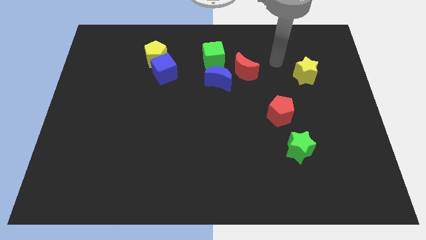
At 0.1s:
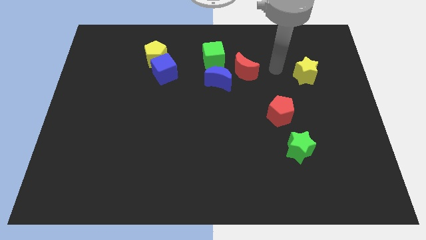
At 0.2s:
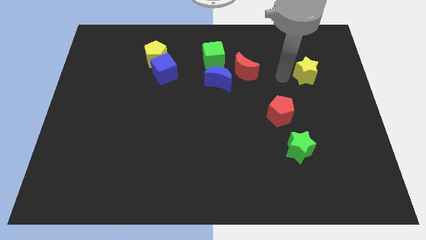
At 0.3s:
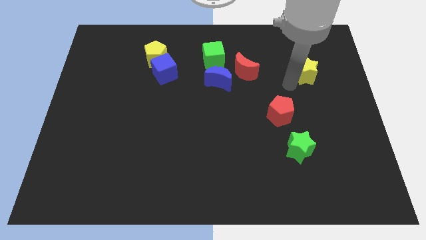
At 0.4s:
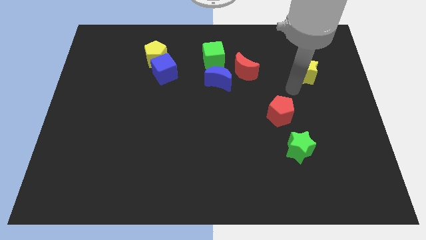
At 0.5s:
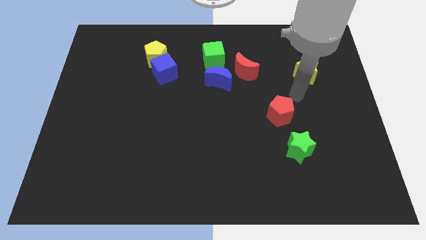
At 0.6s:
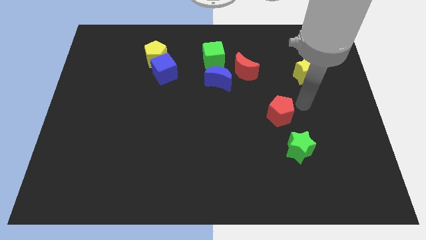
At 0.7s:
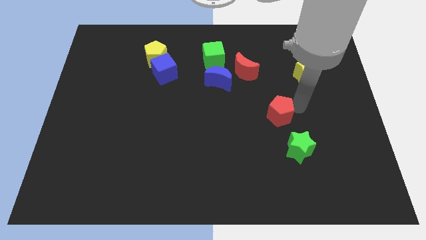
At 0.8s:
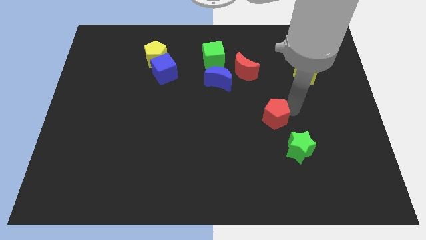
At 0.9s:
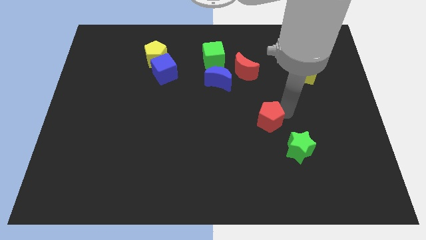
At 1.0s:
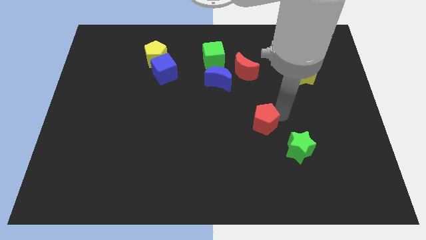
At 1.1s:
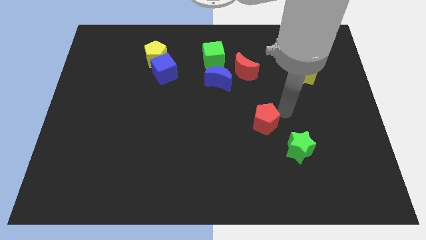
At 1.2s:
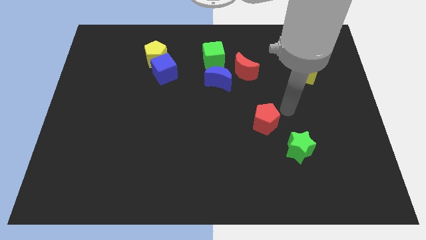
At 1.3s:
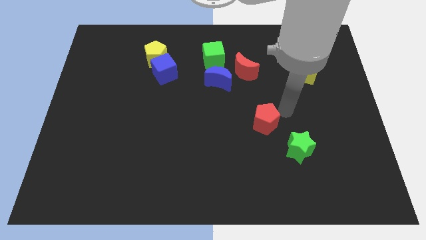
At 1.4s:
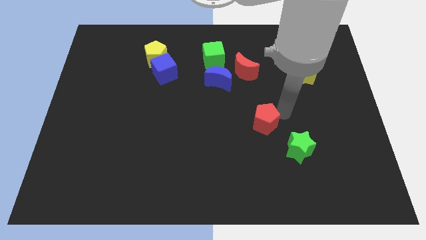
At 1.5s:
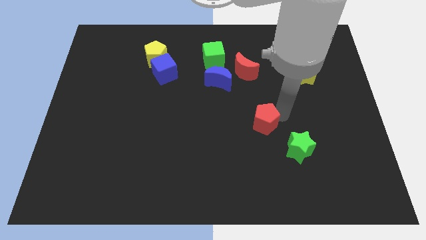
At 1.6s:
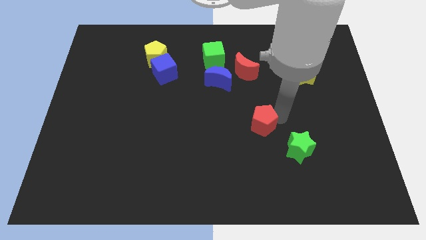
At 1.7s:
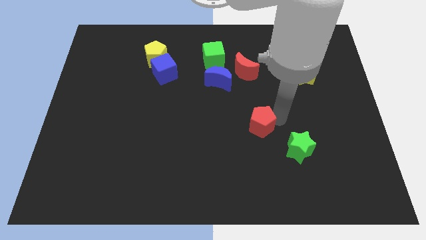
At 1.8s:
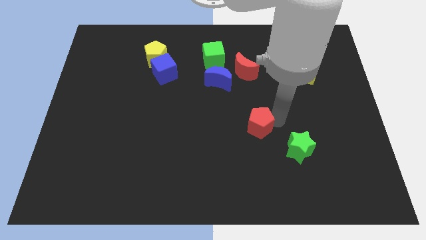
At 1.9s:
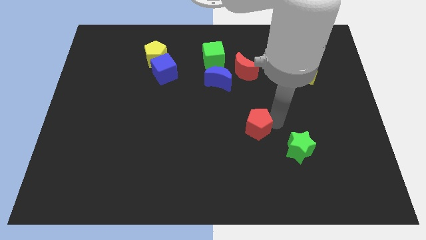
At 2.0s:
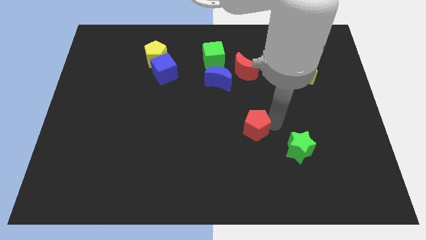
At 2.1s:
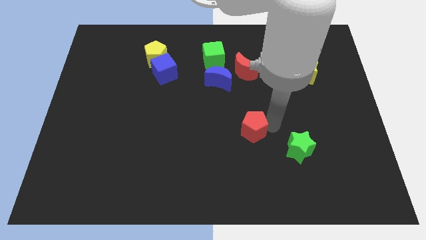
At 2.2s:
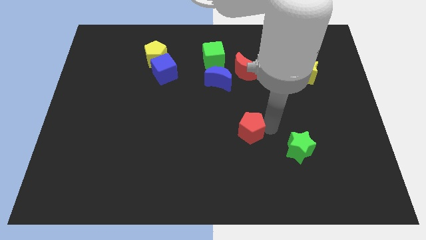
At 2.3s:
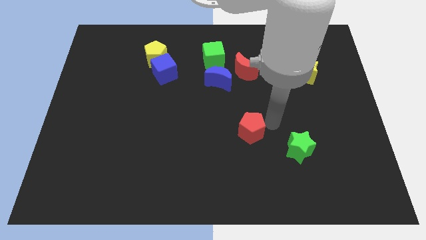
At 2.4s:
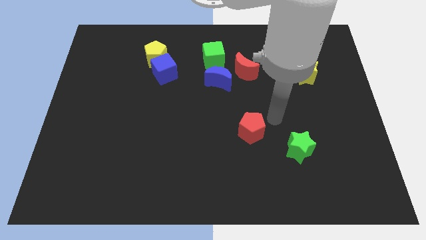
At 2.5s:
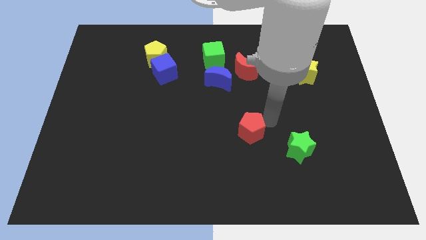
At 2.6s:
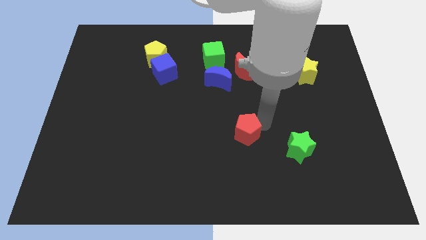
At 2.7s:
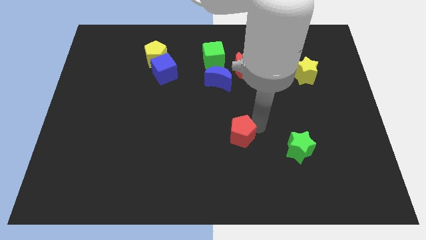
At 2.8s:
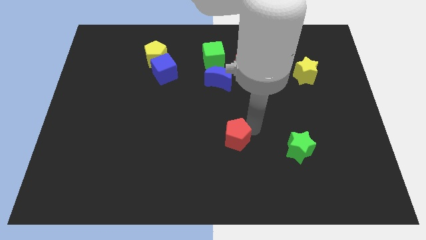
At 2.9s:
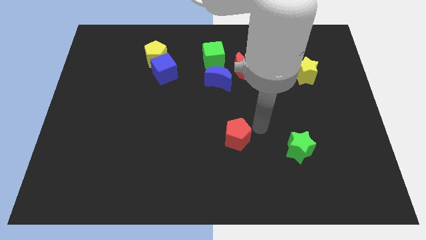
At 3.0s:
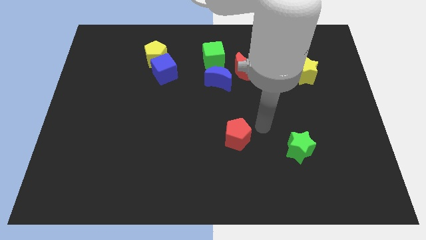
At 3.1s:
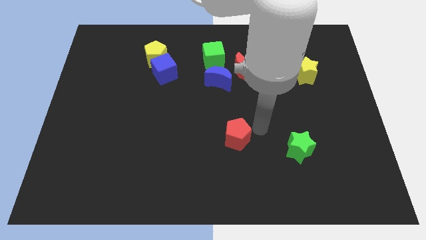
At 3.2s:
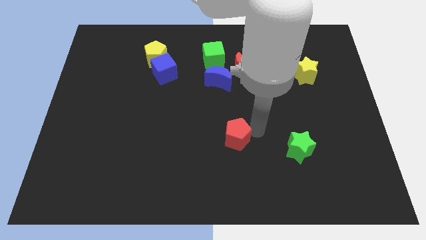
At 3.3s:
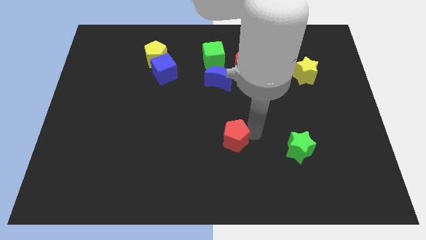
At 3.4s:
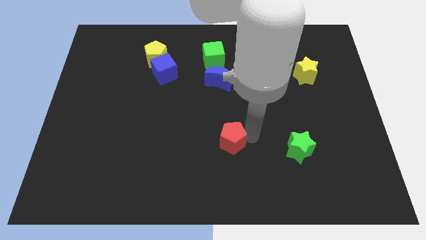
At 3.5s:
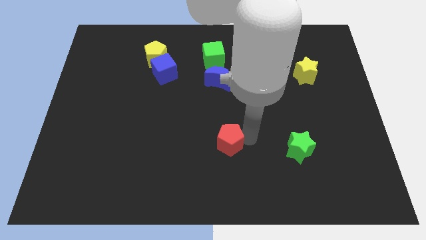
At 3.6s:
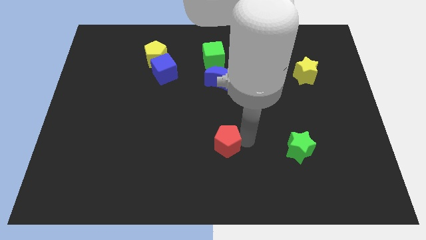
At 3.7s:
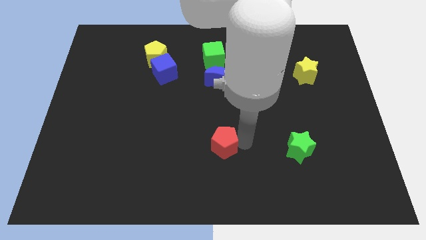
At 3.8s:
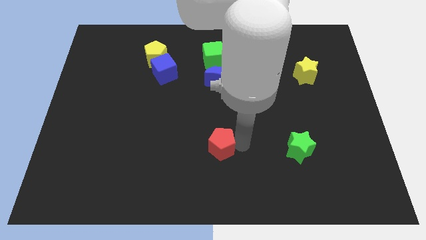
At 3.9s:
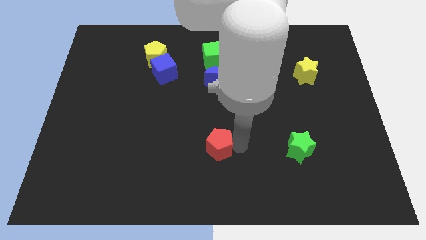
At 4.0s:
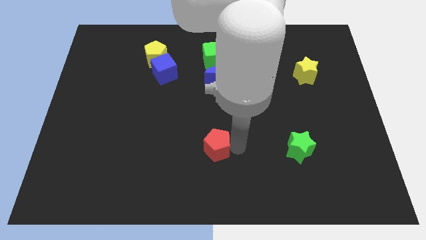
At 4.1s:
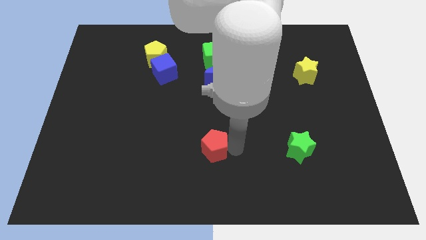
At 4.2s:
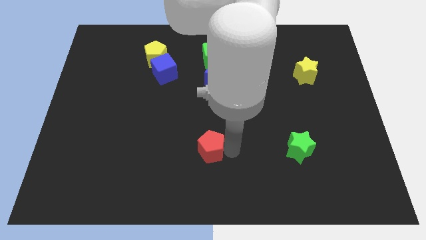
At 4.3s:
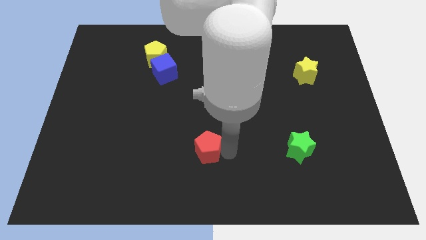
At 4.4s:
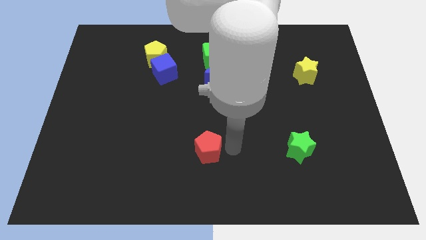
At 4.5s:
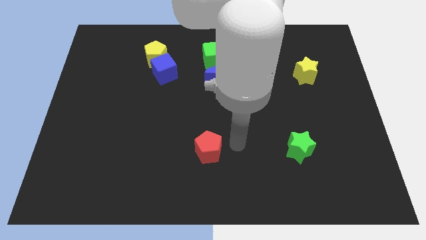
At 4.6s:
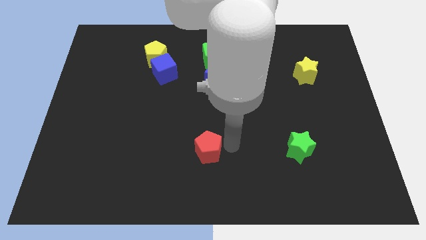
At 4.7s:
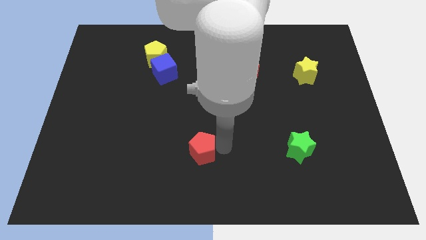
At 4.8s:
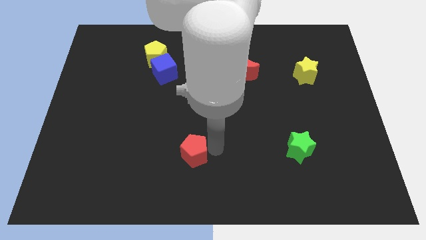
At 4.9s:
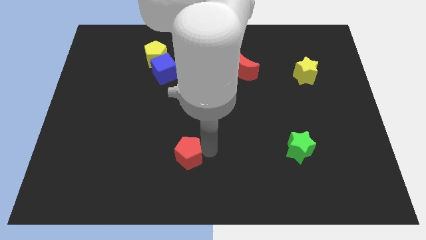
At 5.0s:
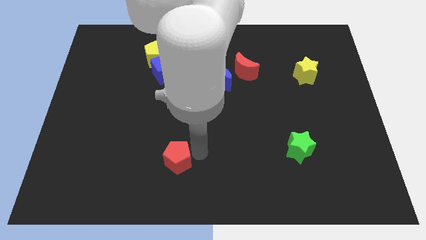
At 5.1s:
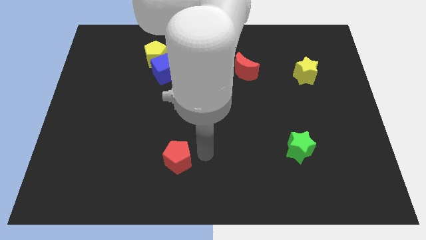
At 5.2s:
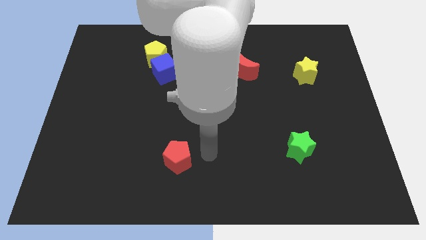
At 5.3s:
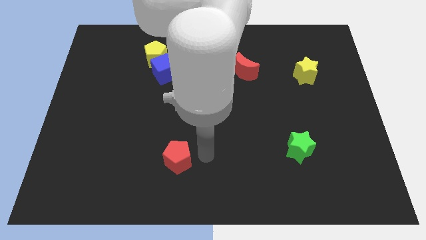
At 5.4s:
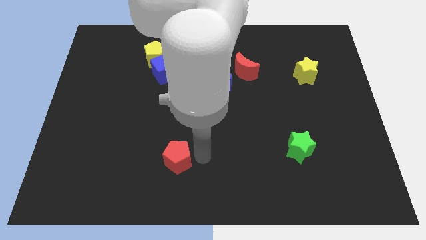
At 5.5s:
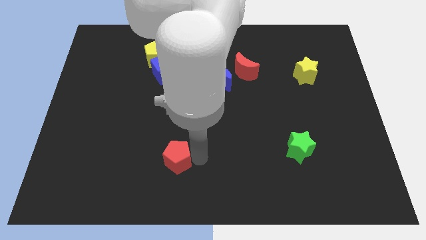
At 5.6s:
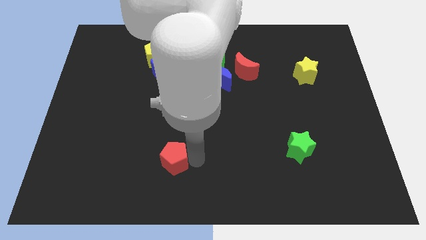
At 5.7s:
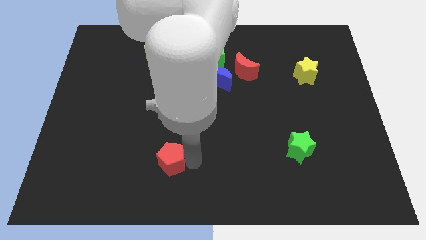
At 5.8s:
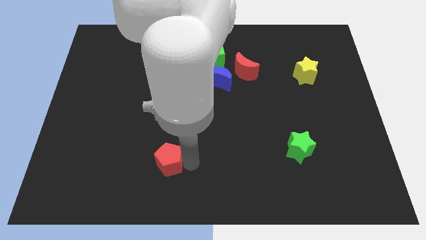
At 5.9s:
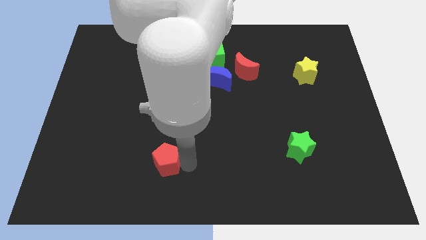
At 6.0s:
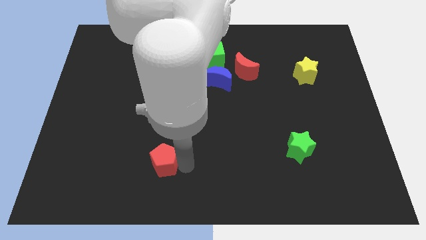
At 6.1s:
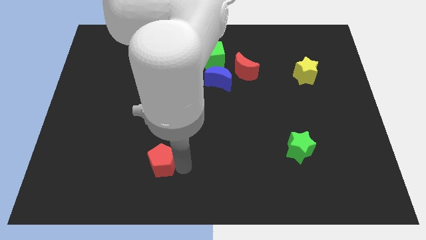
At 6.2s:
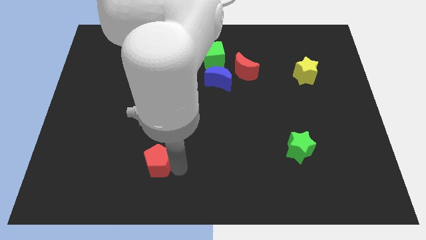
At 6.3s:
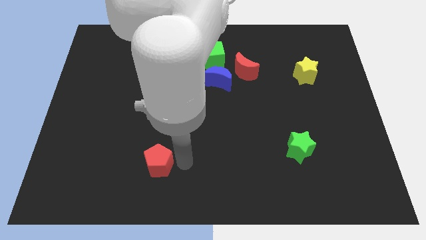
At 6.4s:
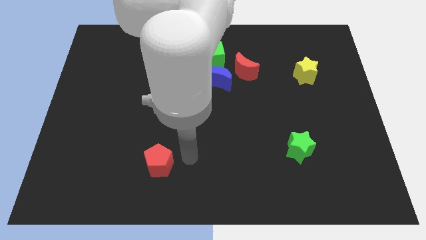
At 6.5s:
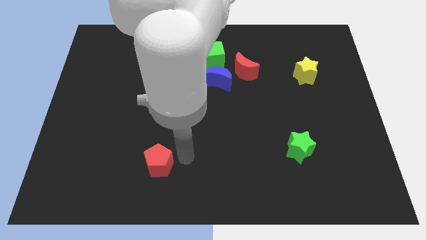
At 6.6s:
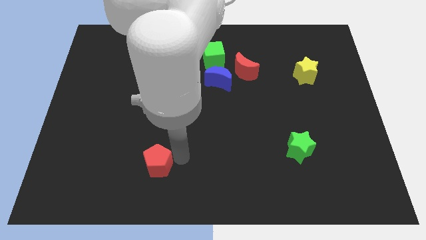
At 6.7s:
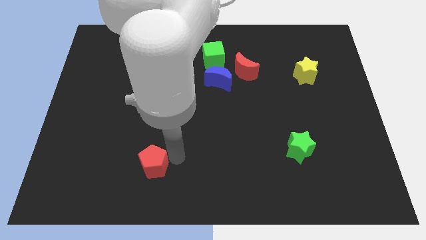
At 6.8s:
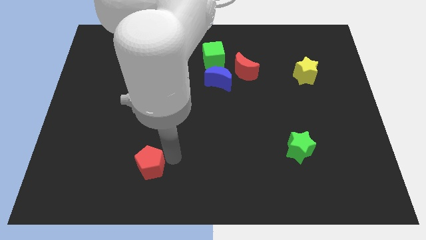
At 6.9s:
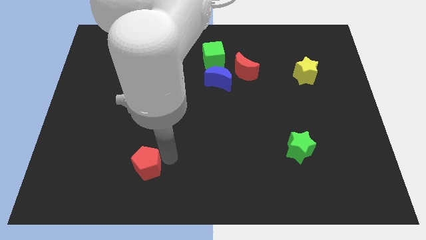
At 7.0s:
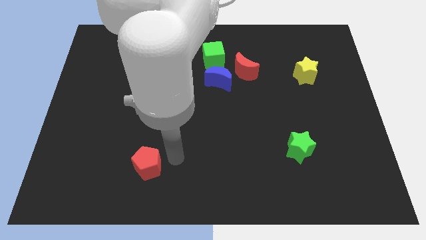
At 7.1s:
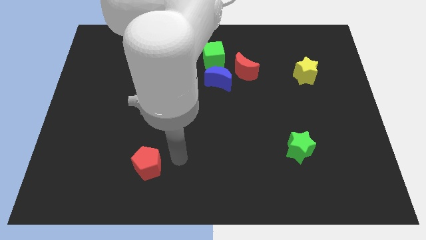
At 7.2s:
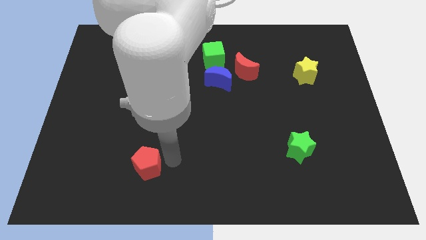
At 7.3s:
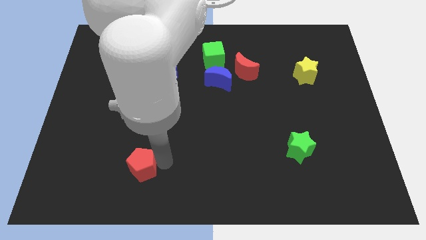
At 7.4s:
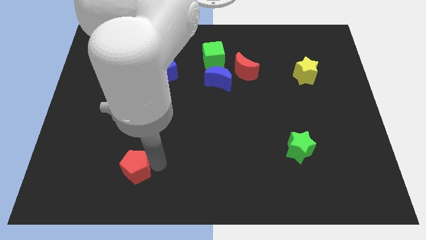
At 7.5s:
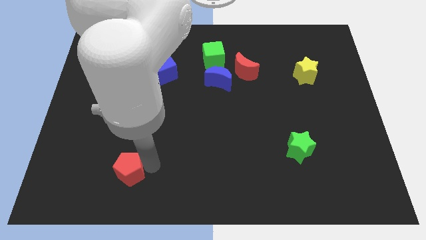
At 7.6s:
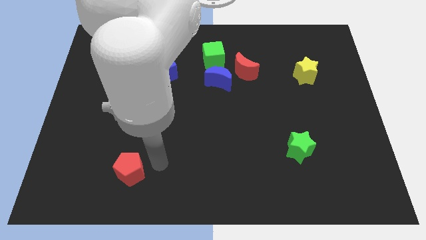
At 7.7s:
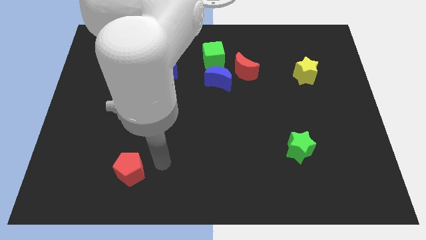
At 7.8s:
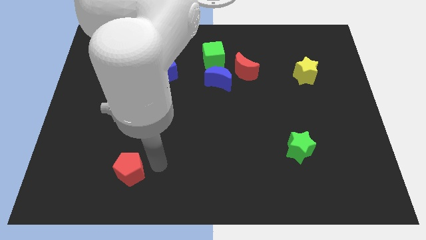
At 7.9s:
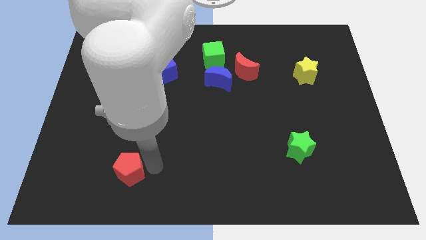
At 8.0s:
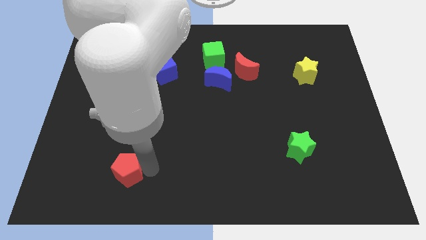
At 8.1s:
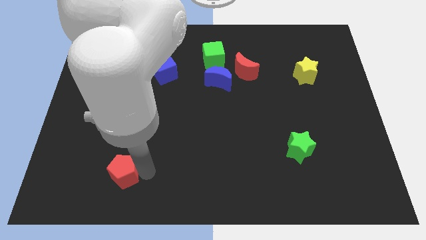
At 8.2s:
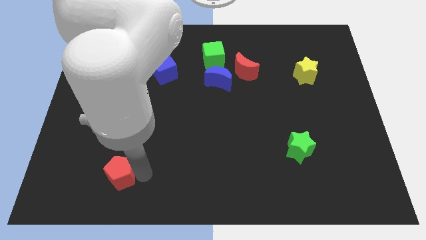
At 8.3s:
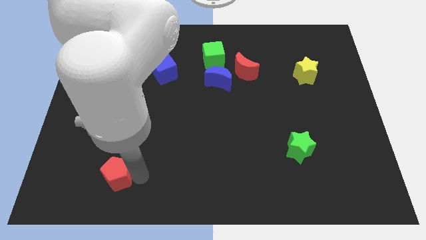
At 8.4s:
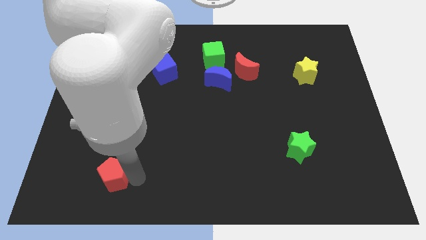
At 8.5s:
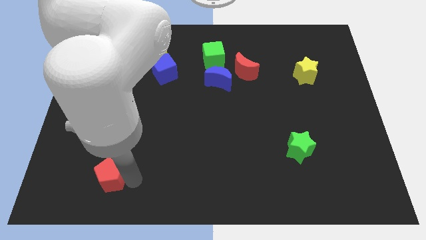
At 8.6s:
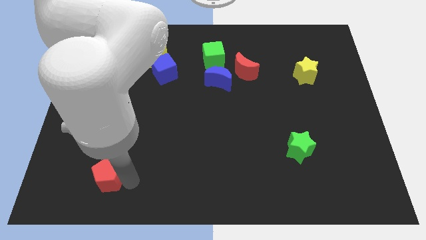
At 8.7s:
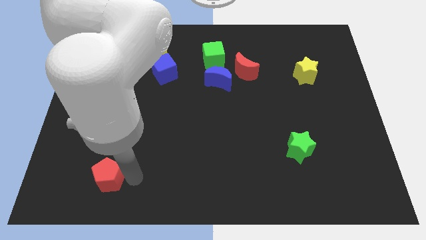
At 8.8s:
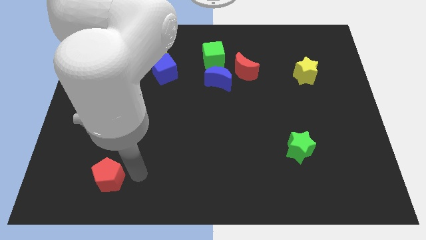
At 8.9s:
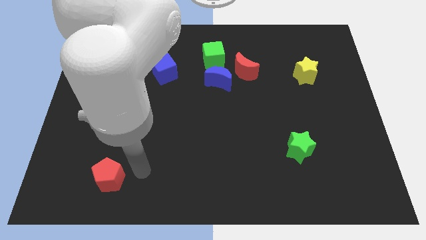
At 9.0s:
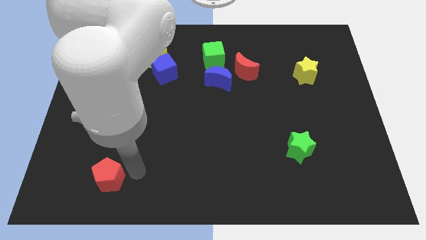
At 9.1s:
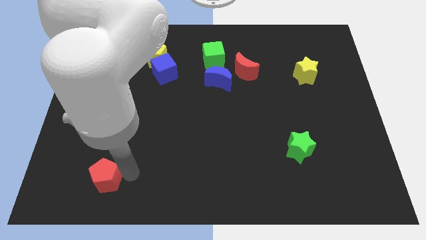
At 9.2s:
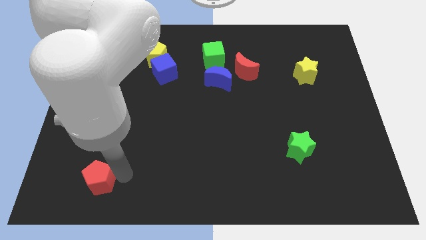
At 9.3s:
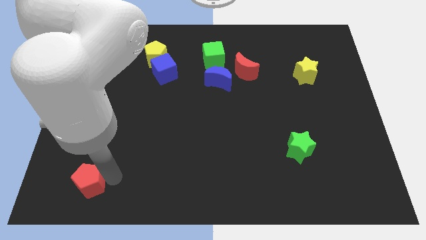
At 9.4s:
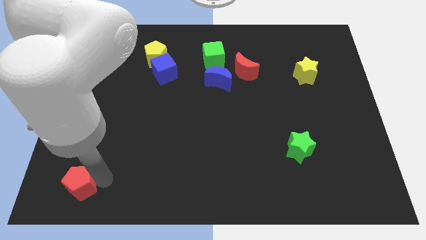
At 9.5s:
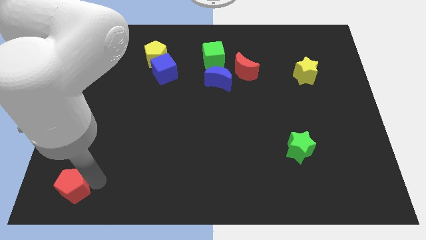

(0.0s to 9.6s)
put the red pentagon to the bottom left
